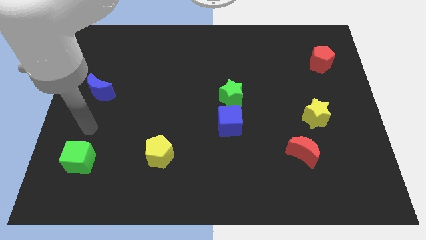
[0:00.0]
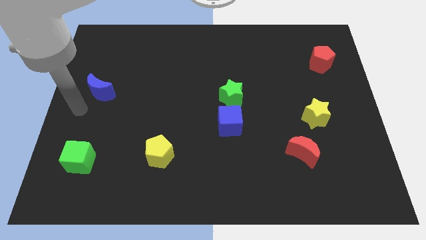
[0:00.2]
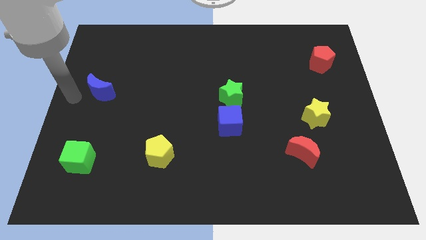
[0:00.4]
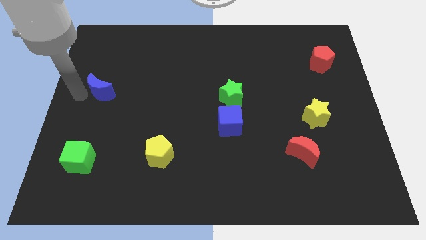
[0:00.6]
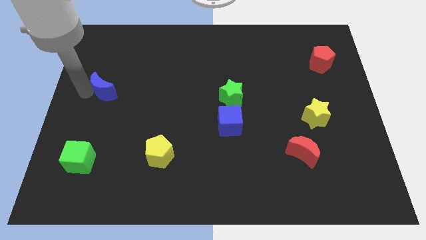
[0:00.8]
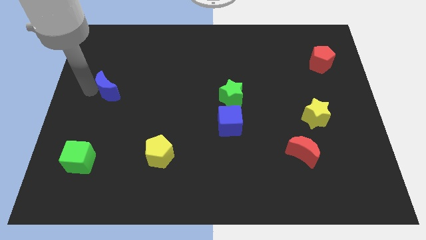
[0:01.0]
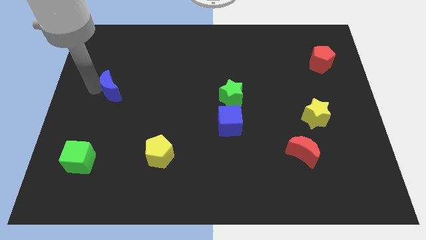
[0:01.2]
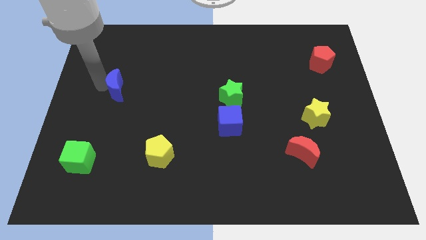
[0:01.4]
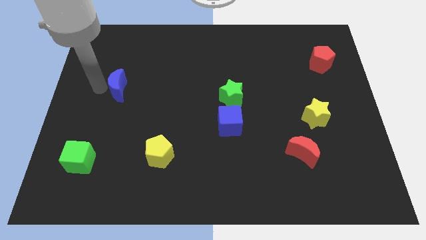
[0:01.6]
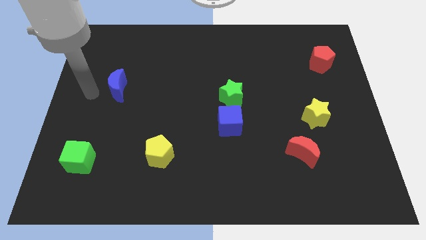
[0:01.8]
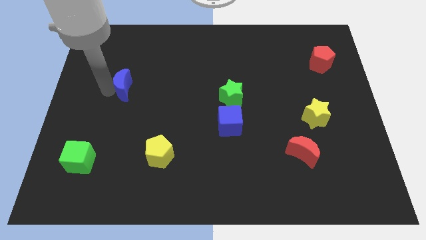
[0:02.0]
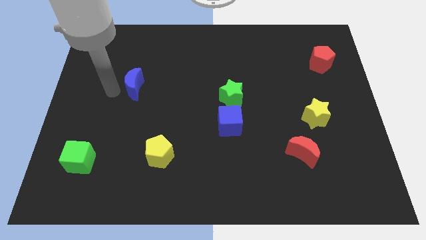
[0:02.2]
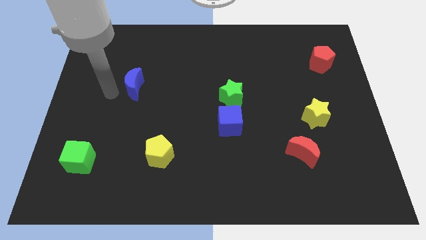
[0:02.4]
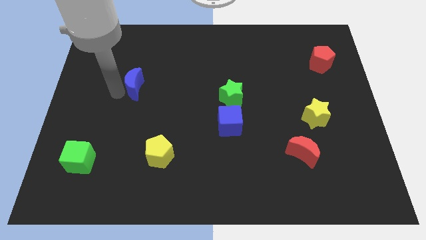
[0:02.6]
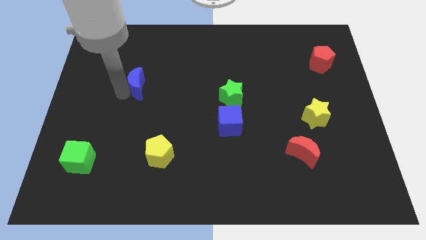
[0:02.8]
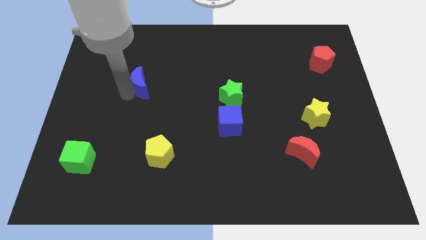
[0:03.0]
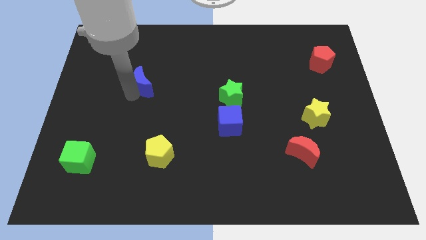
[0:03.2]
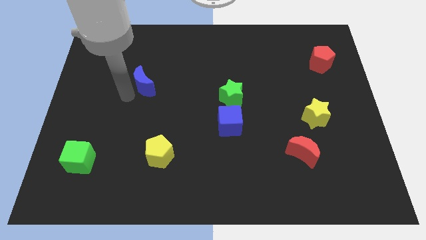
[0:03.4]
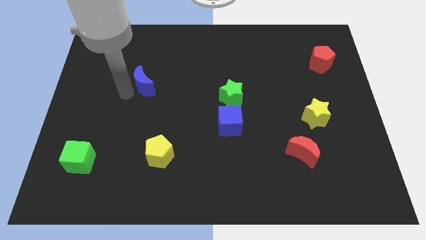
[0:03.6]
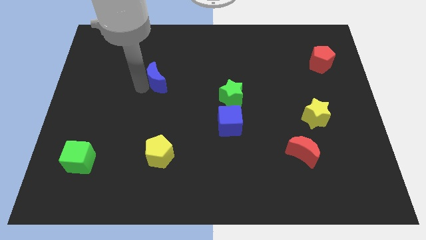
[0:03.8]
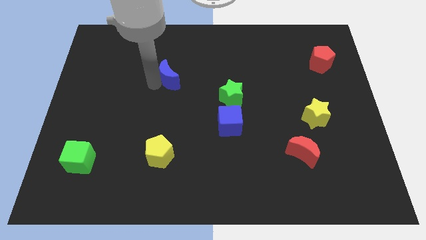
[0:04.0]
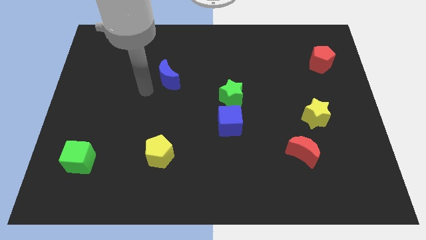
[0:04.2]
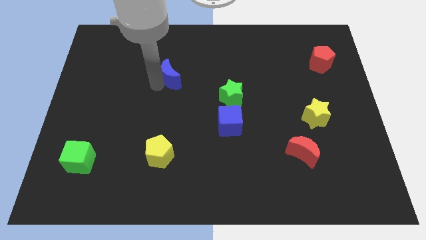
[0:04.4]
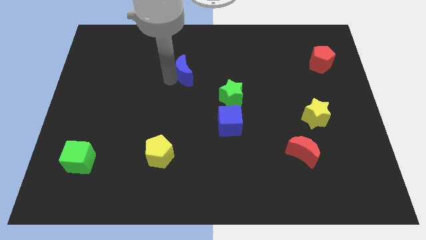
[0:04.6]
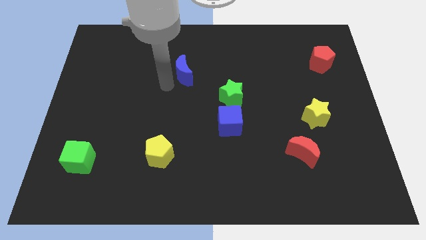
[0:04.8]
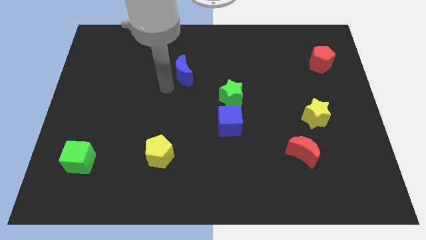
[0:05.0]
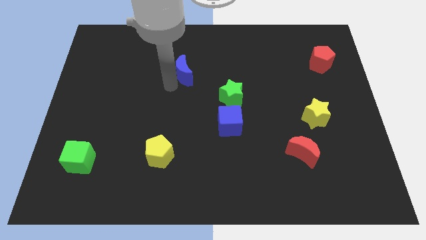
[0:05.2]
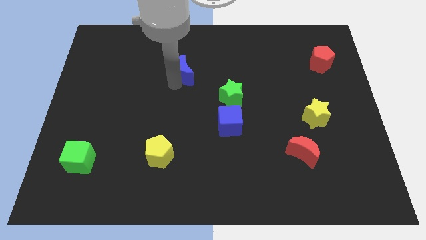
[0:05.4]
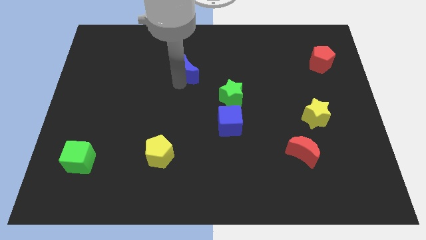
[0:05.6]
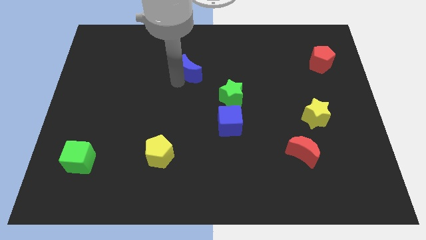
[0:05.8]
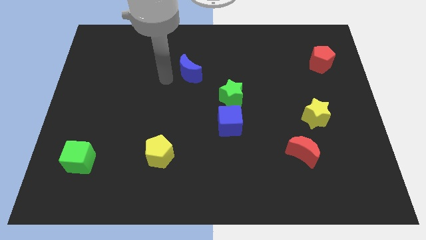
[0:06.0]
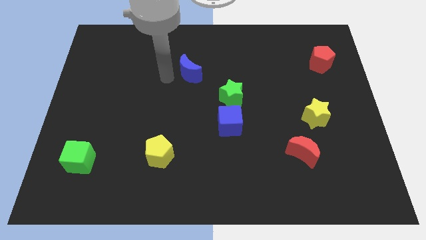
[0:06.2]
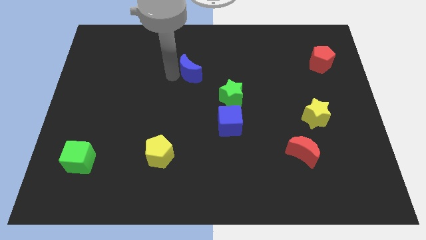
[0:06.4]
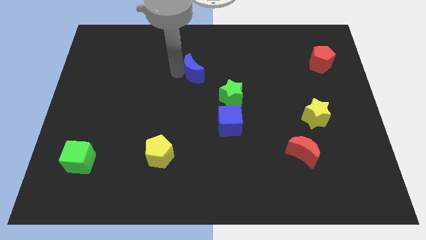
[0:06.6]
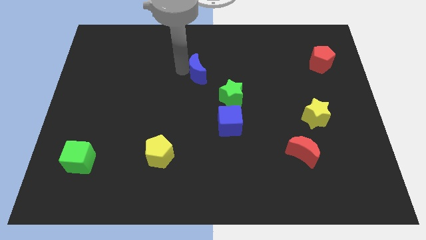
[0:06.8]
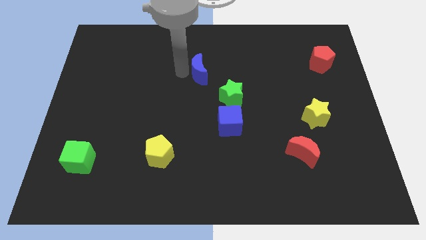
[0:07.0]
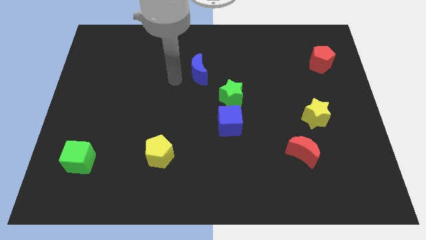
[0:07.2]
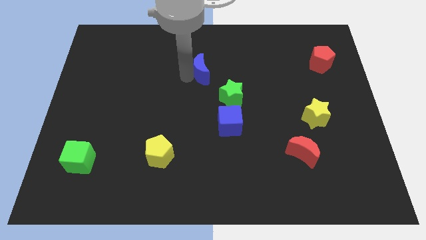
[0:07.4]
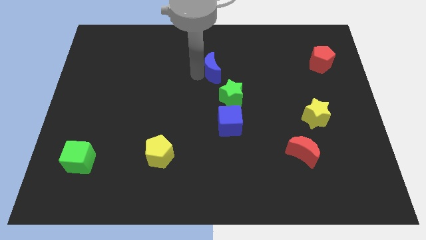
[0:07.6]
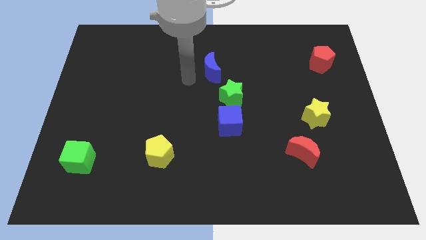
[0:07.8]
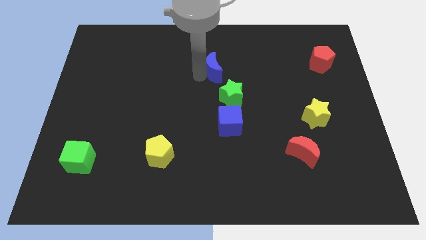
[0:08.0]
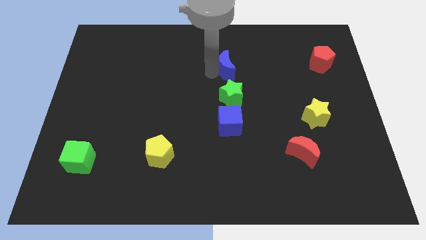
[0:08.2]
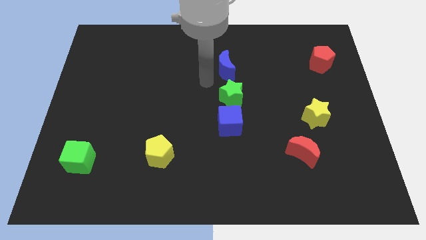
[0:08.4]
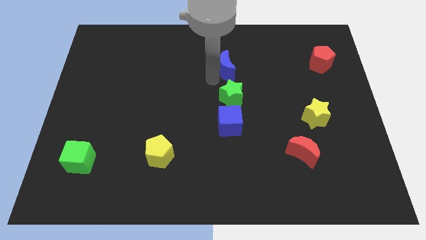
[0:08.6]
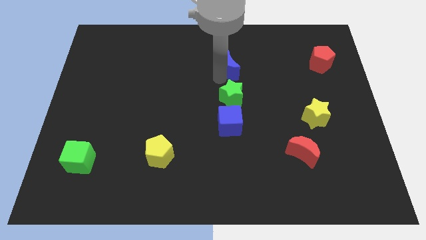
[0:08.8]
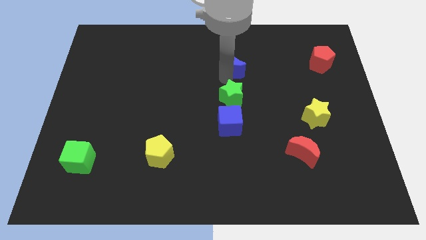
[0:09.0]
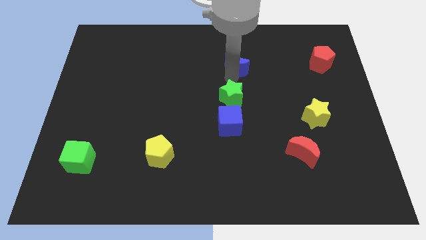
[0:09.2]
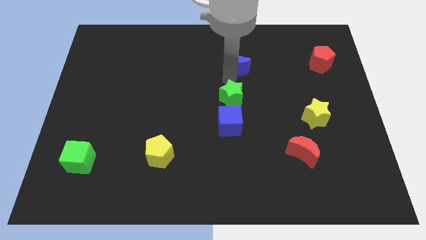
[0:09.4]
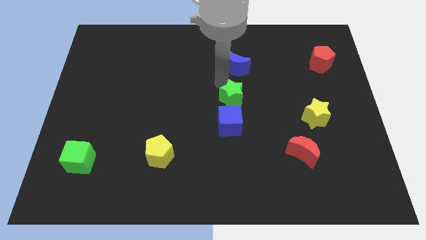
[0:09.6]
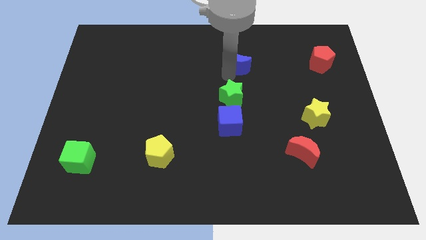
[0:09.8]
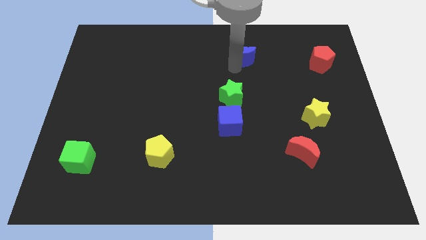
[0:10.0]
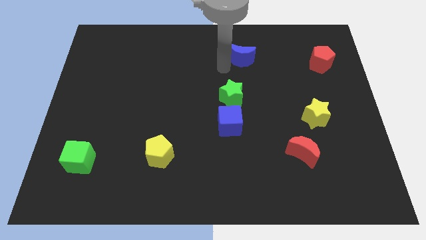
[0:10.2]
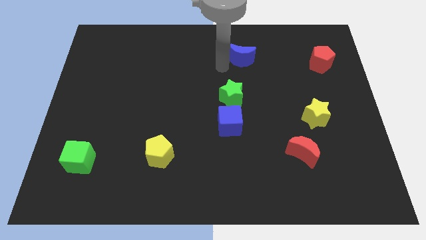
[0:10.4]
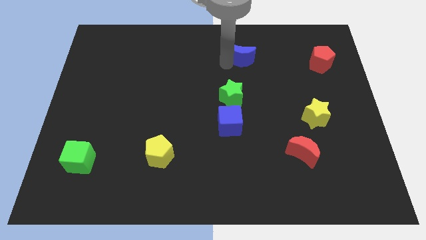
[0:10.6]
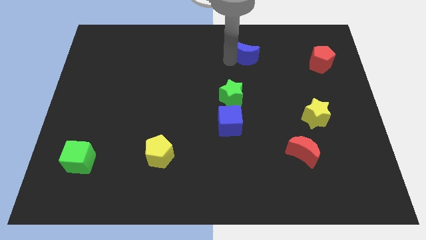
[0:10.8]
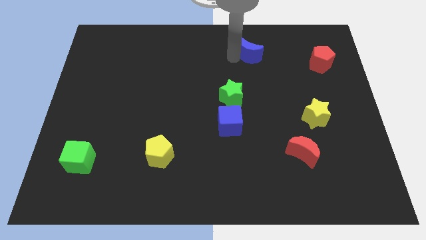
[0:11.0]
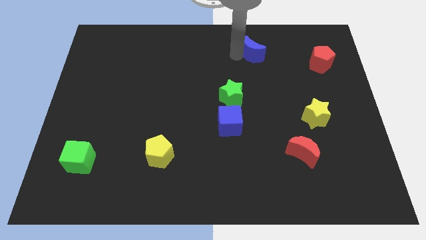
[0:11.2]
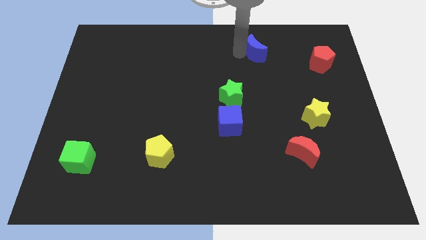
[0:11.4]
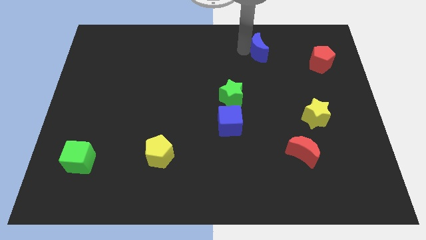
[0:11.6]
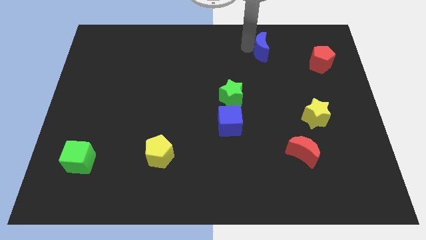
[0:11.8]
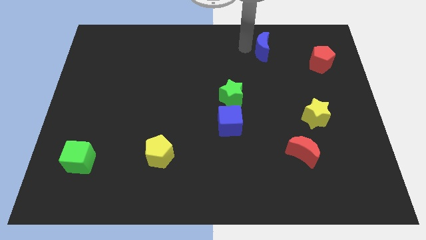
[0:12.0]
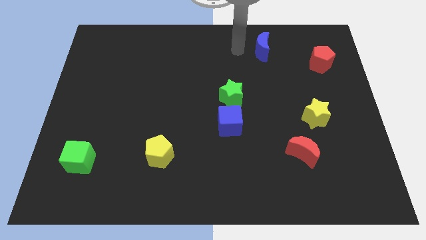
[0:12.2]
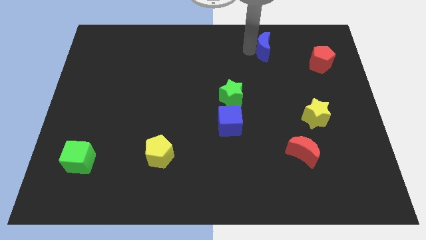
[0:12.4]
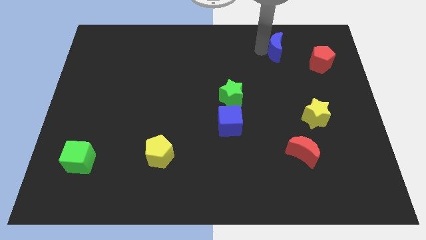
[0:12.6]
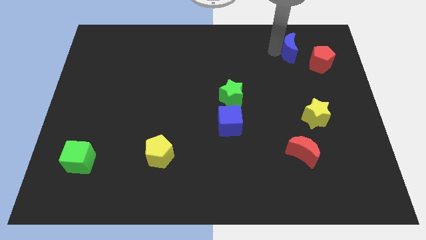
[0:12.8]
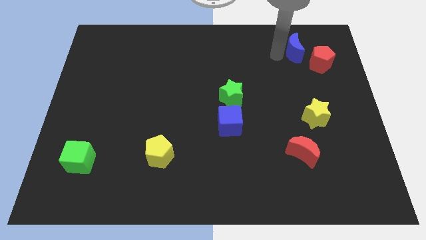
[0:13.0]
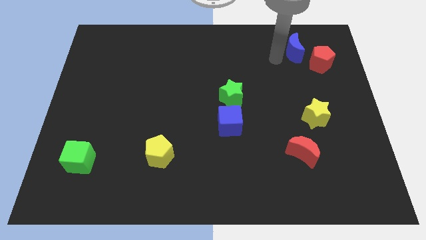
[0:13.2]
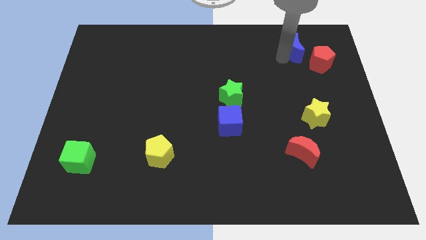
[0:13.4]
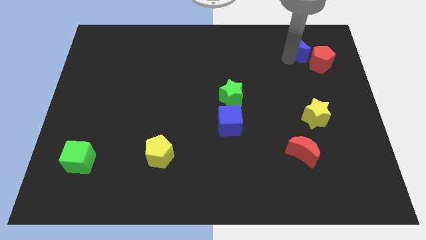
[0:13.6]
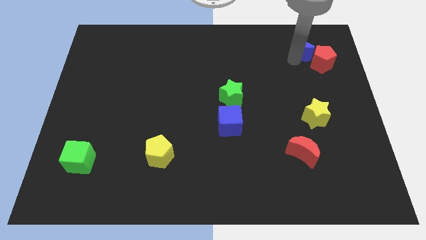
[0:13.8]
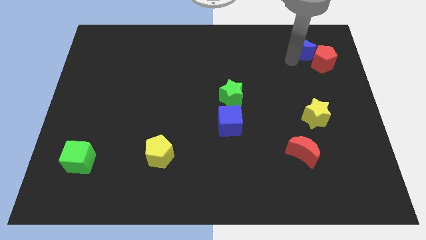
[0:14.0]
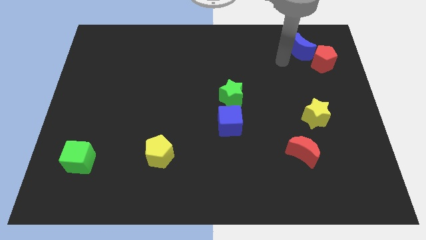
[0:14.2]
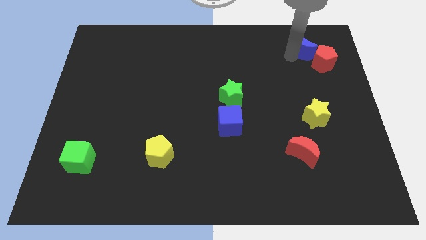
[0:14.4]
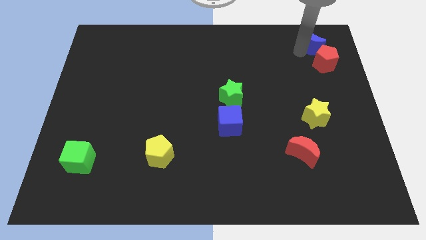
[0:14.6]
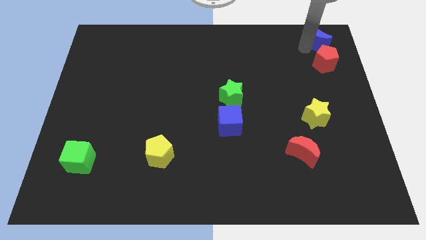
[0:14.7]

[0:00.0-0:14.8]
put the blue moon to the top right
